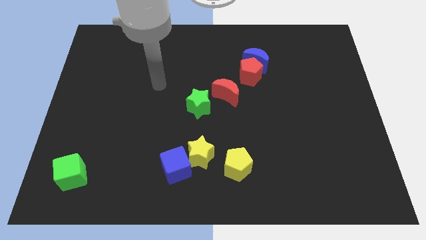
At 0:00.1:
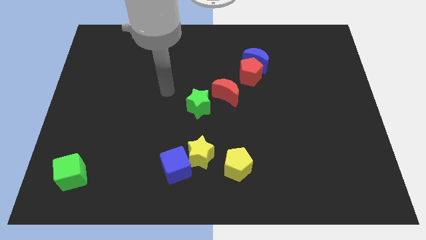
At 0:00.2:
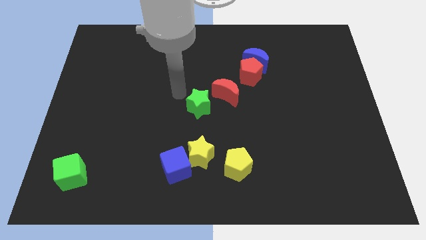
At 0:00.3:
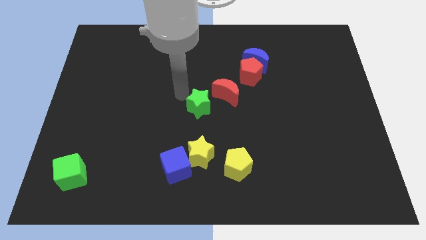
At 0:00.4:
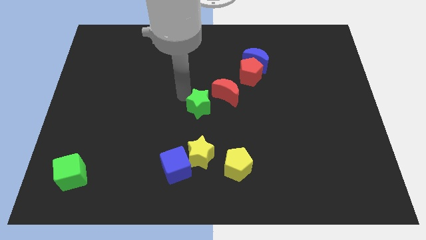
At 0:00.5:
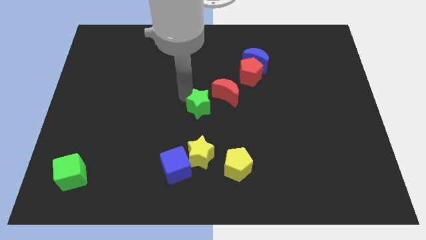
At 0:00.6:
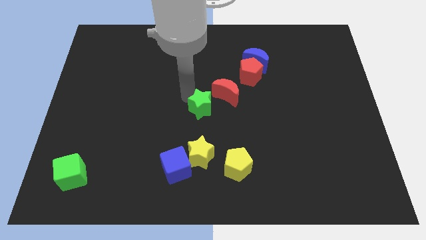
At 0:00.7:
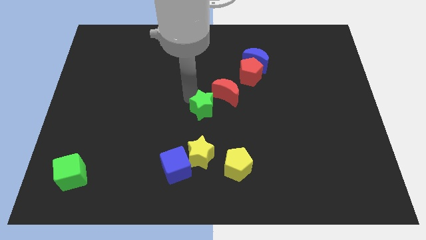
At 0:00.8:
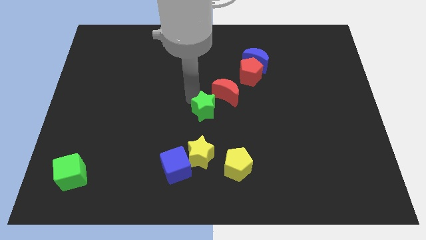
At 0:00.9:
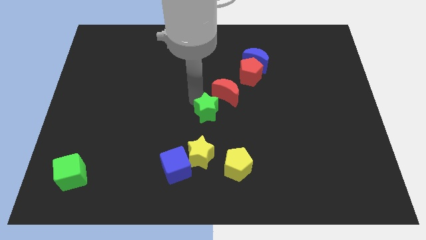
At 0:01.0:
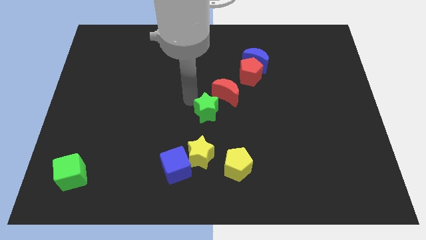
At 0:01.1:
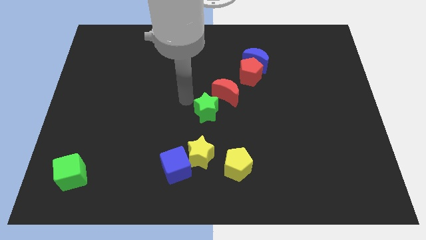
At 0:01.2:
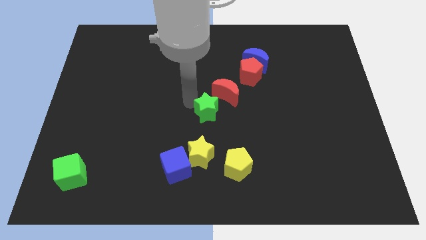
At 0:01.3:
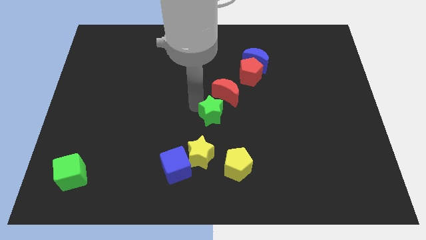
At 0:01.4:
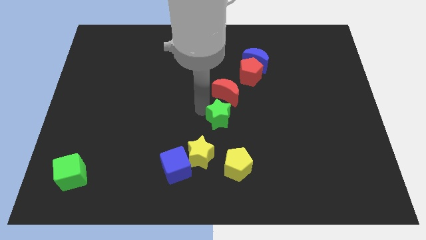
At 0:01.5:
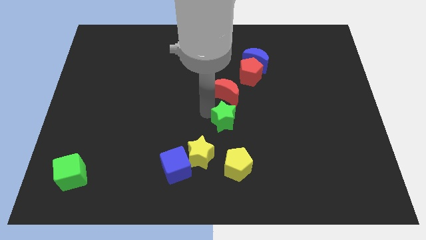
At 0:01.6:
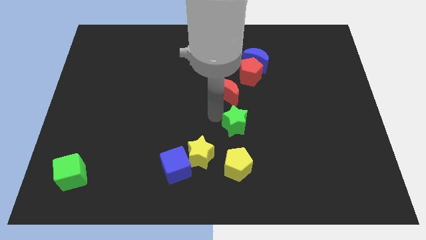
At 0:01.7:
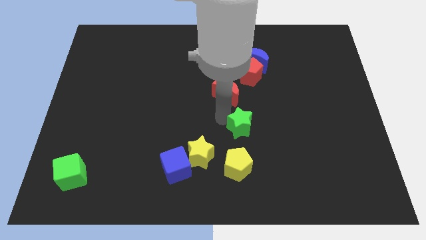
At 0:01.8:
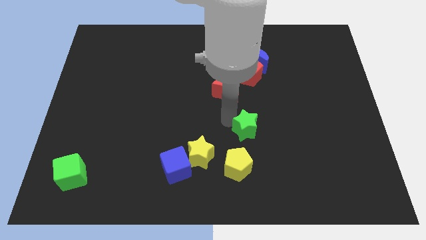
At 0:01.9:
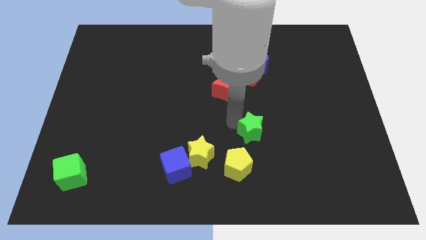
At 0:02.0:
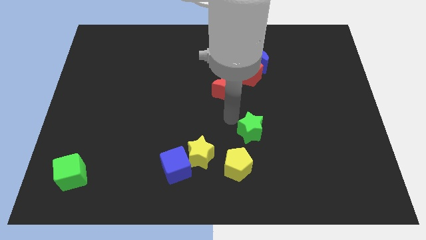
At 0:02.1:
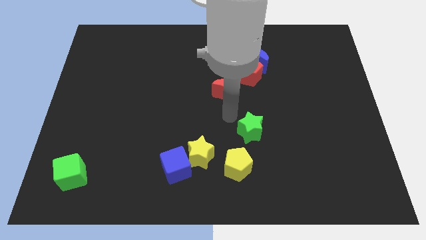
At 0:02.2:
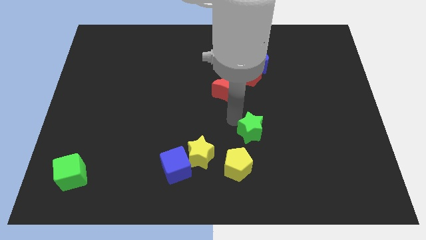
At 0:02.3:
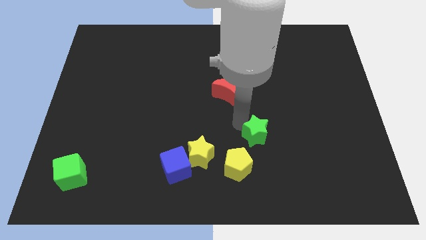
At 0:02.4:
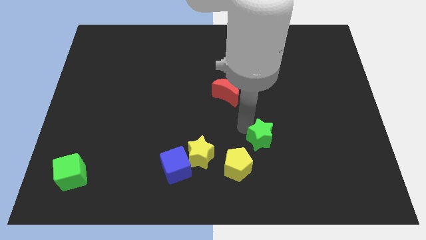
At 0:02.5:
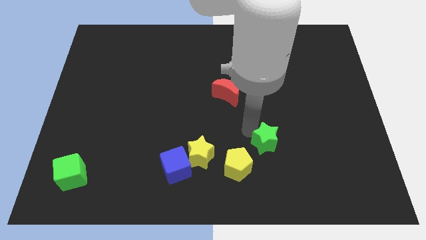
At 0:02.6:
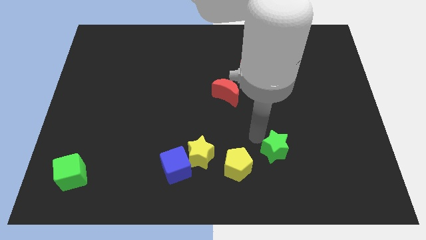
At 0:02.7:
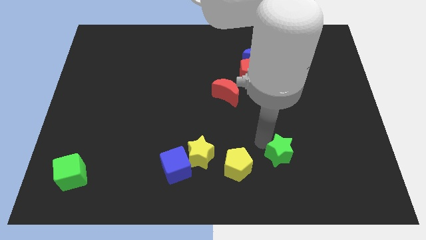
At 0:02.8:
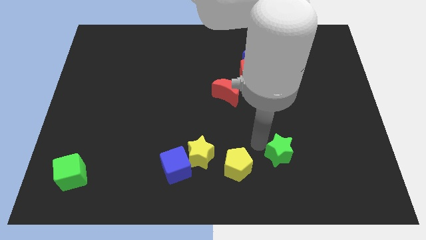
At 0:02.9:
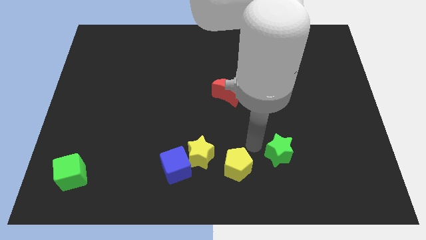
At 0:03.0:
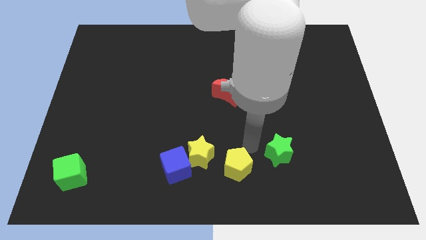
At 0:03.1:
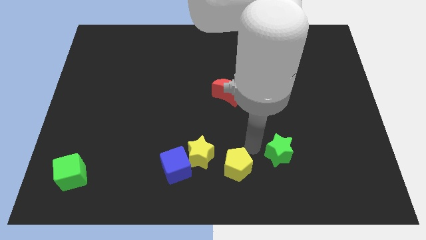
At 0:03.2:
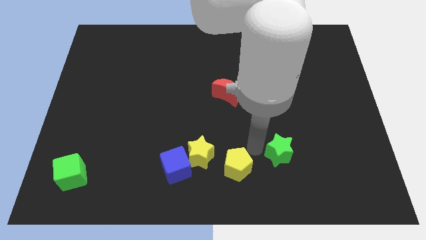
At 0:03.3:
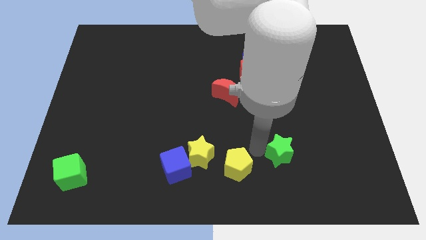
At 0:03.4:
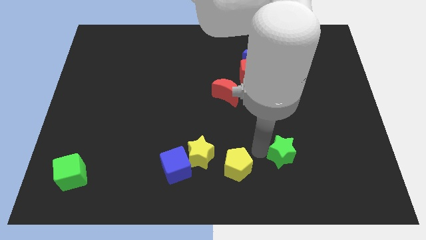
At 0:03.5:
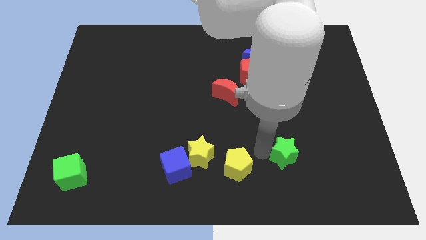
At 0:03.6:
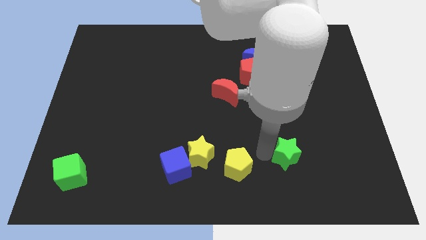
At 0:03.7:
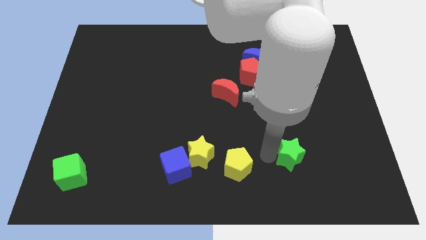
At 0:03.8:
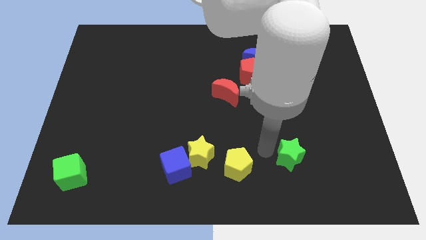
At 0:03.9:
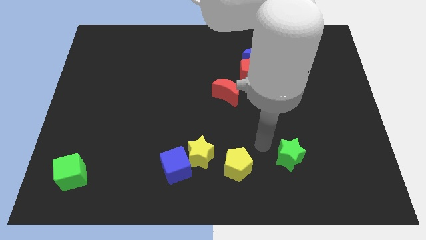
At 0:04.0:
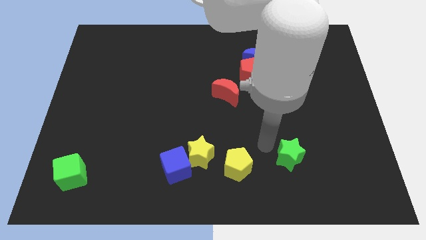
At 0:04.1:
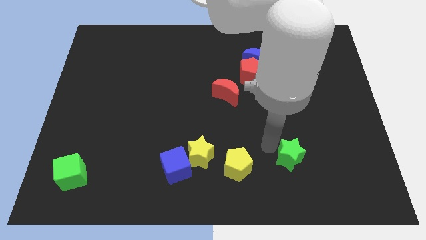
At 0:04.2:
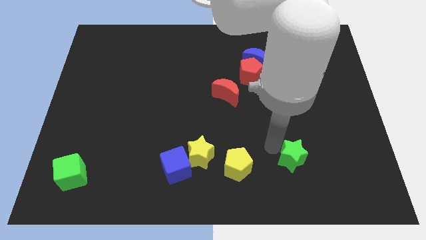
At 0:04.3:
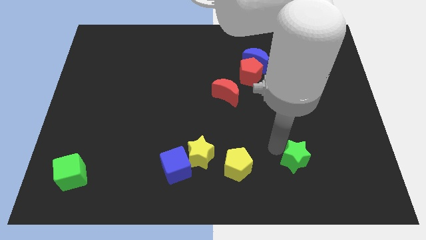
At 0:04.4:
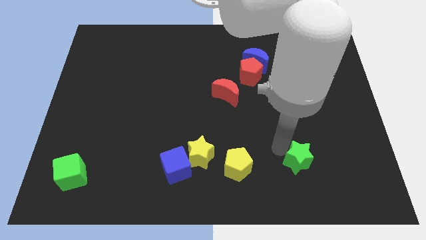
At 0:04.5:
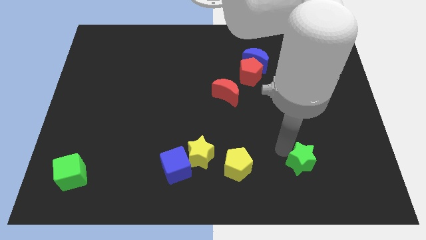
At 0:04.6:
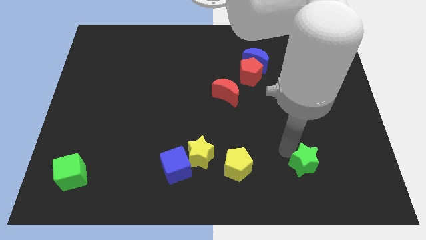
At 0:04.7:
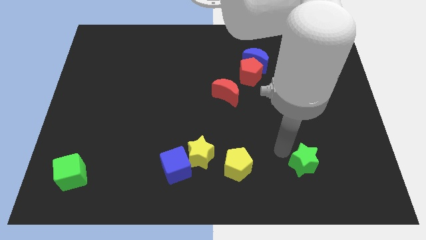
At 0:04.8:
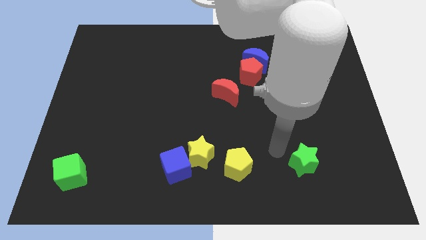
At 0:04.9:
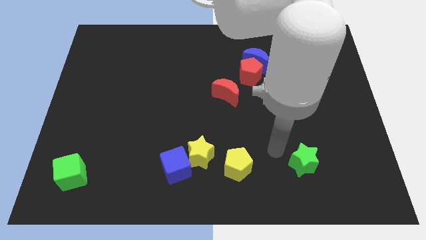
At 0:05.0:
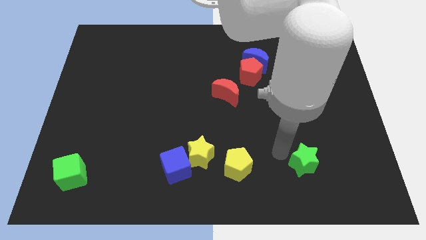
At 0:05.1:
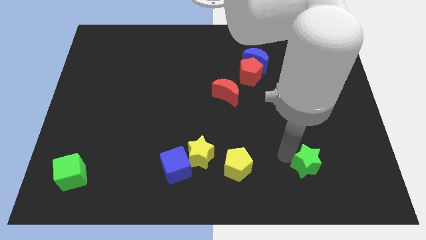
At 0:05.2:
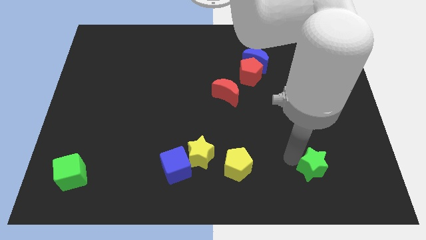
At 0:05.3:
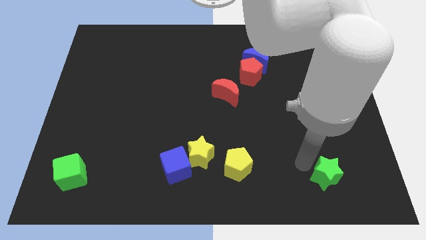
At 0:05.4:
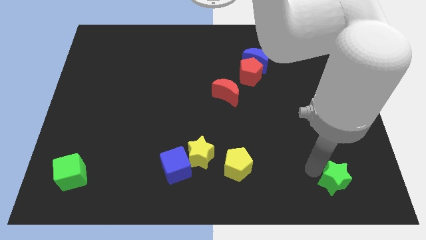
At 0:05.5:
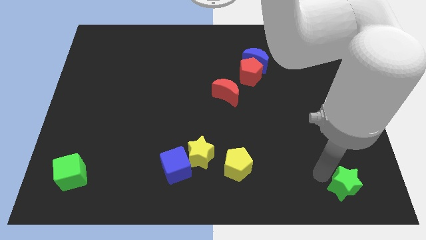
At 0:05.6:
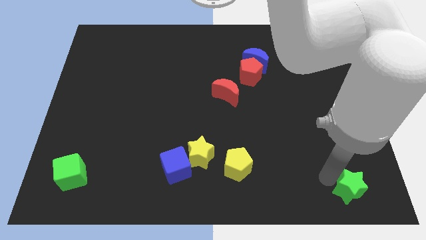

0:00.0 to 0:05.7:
push the green star to the lower right corner

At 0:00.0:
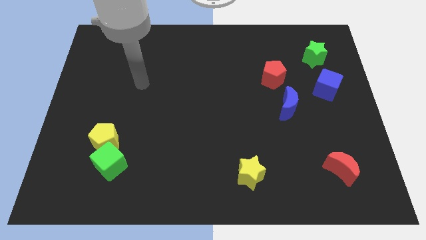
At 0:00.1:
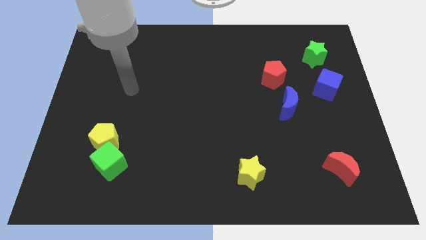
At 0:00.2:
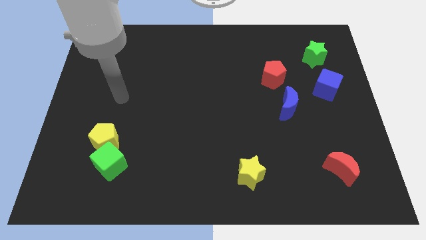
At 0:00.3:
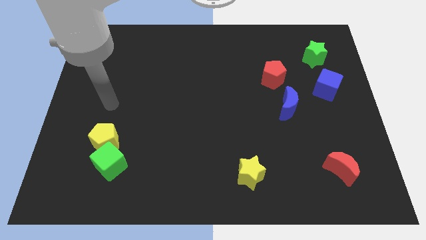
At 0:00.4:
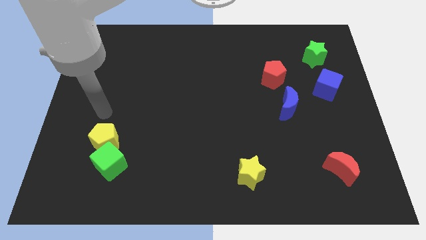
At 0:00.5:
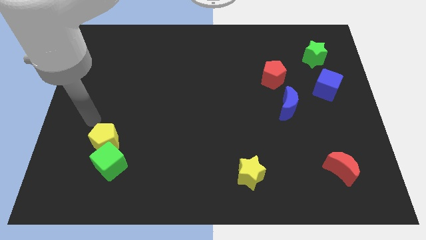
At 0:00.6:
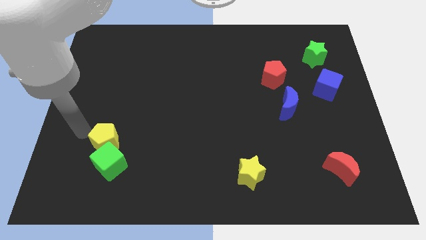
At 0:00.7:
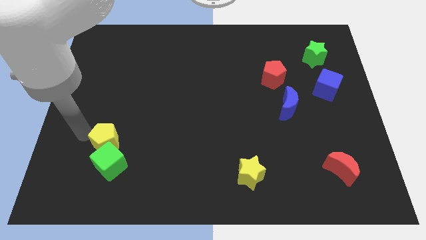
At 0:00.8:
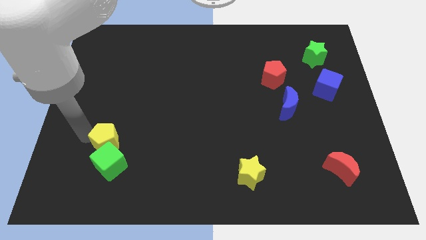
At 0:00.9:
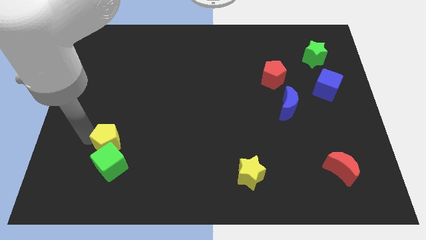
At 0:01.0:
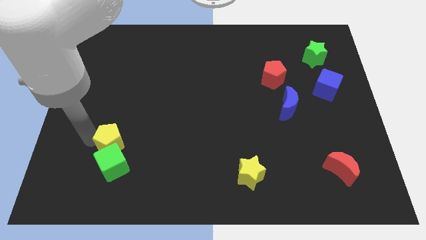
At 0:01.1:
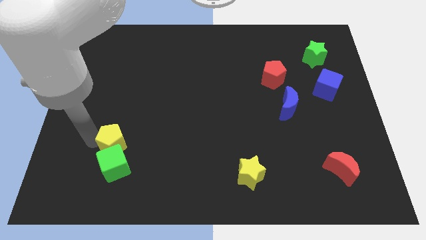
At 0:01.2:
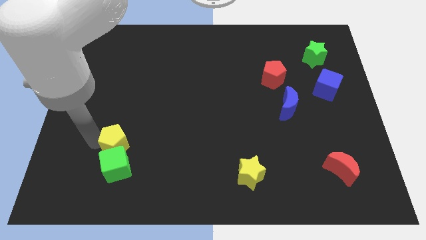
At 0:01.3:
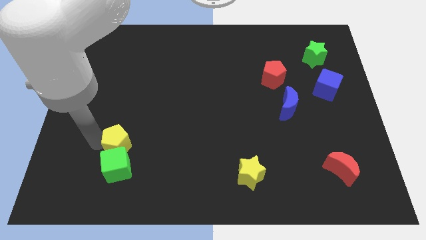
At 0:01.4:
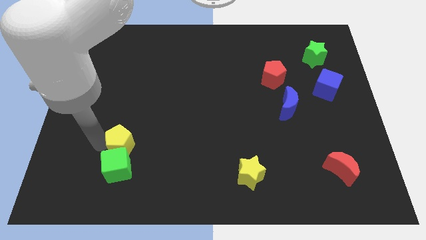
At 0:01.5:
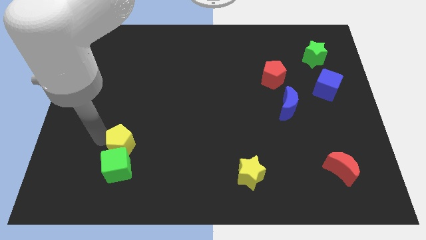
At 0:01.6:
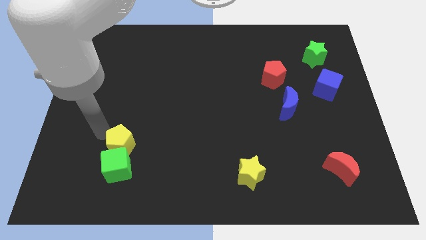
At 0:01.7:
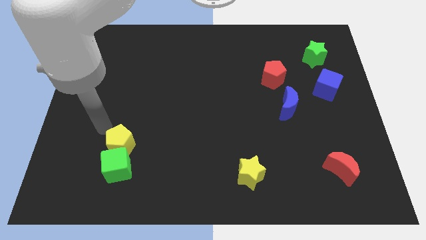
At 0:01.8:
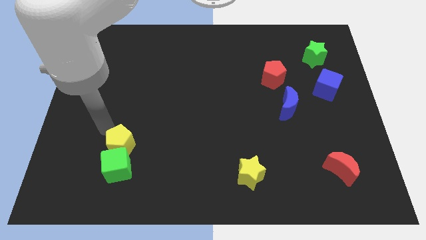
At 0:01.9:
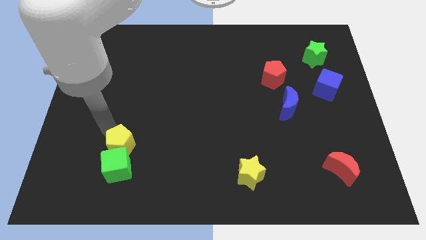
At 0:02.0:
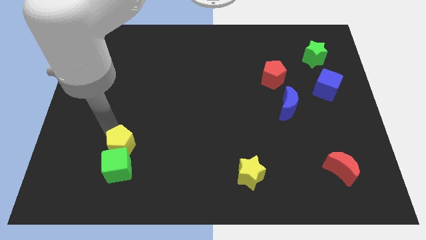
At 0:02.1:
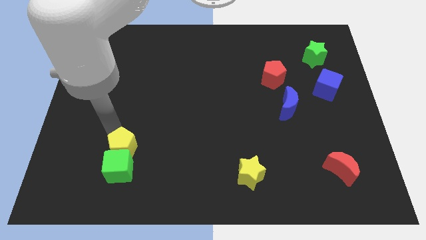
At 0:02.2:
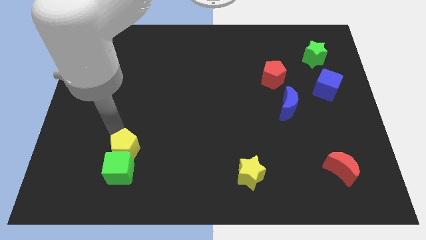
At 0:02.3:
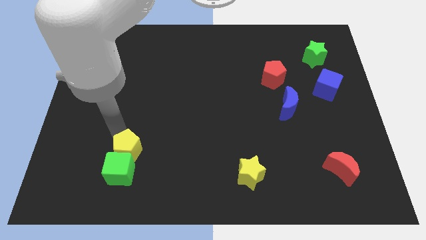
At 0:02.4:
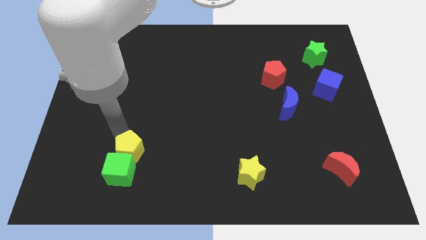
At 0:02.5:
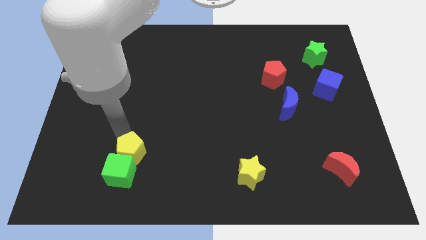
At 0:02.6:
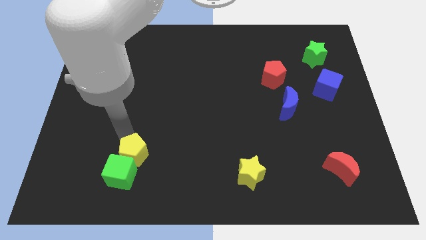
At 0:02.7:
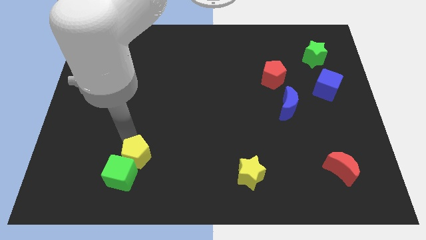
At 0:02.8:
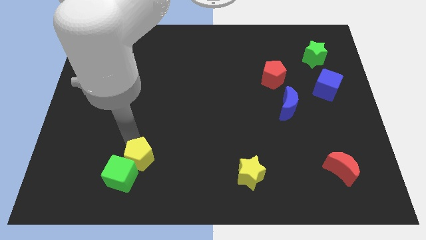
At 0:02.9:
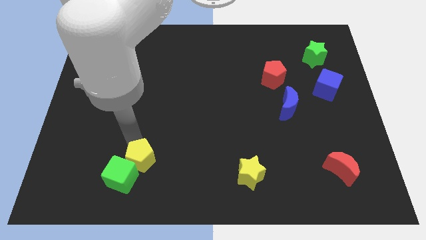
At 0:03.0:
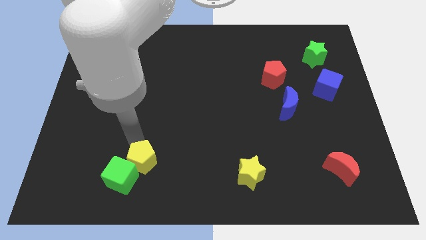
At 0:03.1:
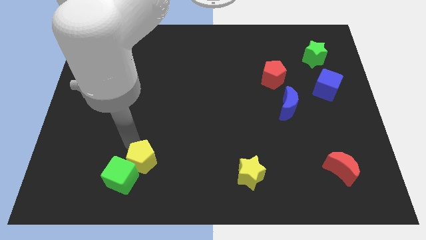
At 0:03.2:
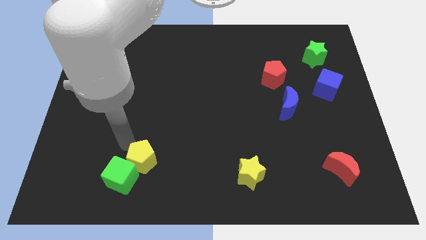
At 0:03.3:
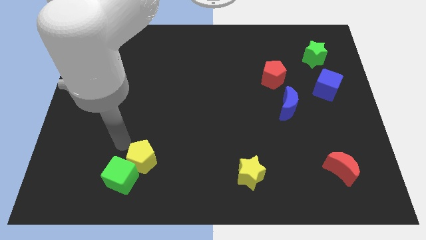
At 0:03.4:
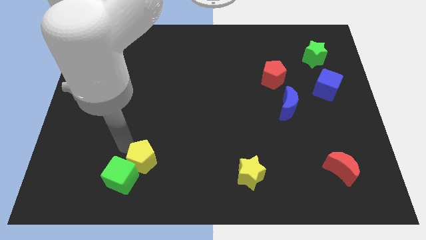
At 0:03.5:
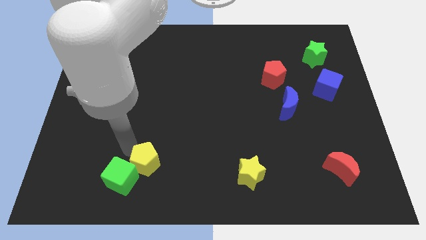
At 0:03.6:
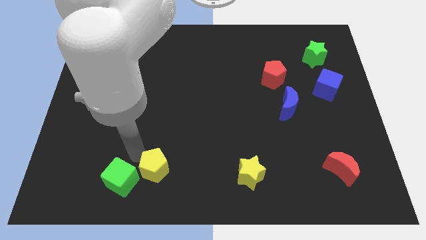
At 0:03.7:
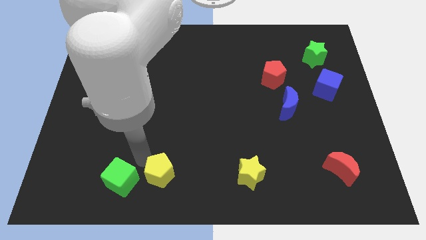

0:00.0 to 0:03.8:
push the yellow pentagon to the bottom side
